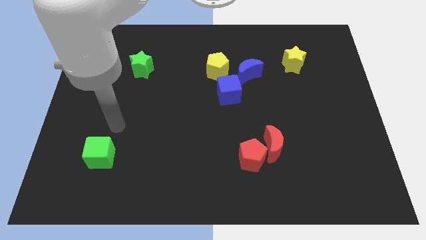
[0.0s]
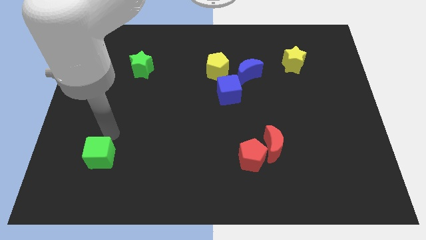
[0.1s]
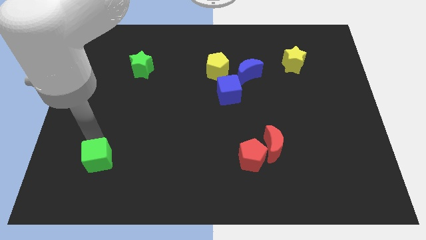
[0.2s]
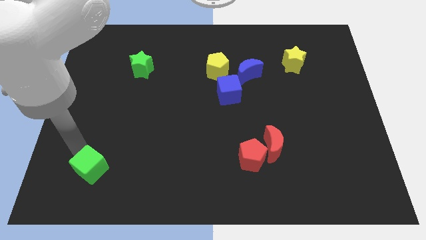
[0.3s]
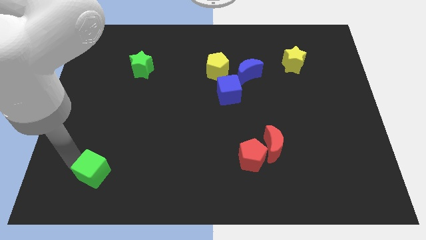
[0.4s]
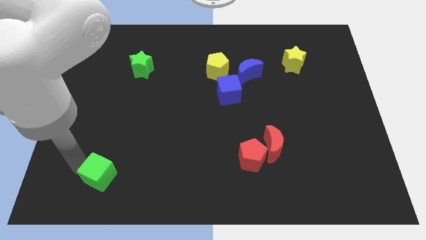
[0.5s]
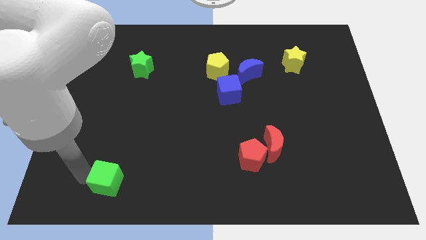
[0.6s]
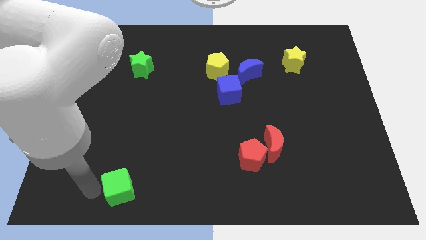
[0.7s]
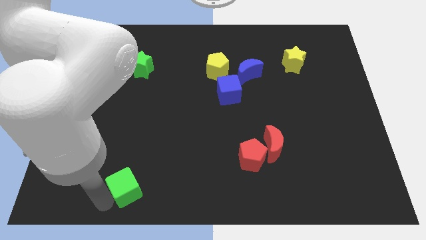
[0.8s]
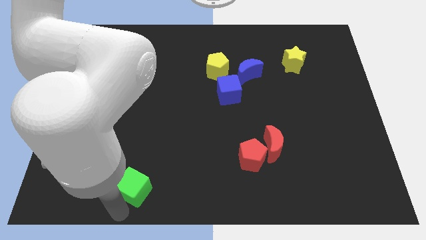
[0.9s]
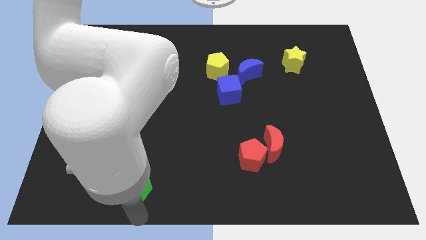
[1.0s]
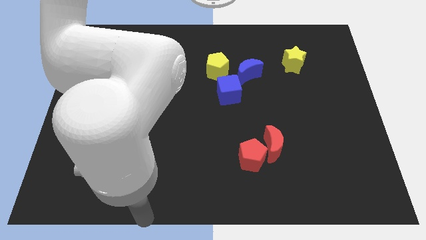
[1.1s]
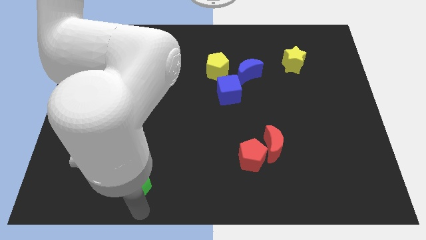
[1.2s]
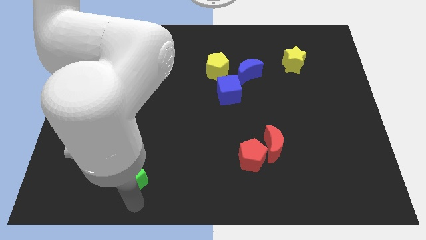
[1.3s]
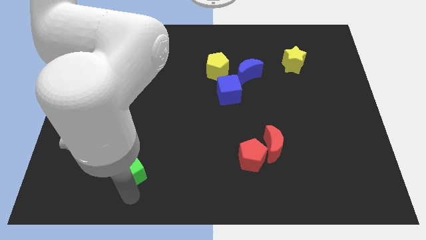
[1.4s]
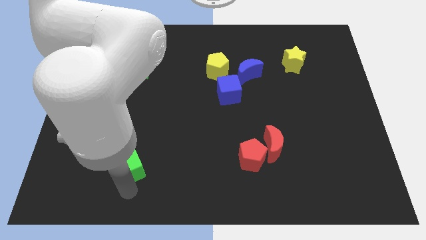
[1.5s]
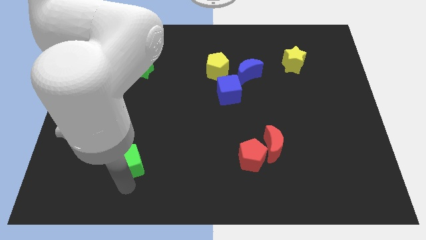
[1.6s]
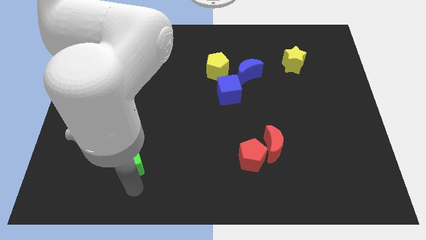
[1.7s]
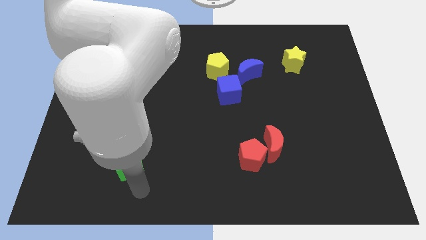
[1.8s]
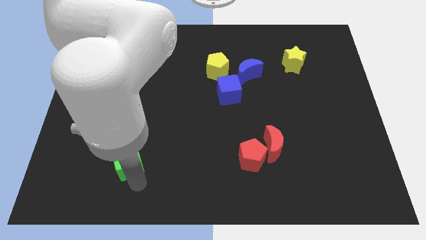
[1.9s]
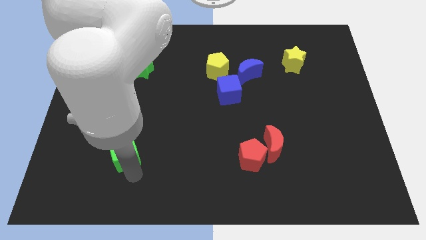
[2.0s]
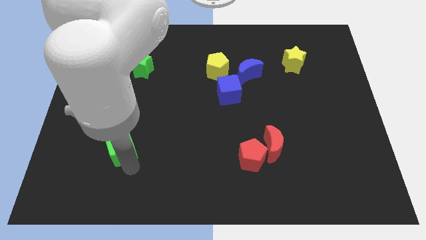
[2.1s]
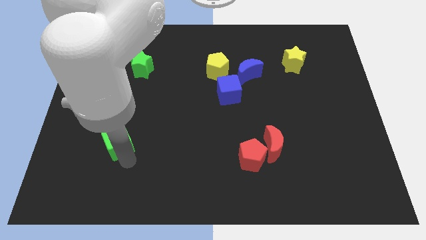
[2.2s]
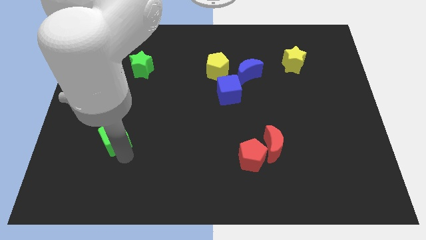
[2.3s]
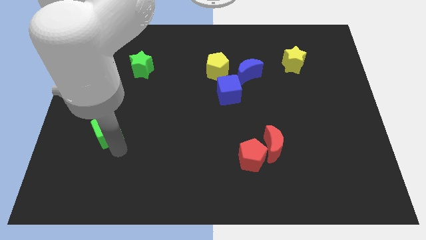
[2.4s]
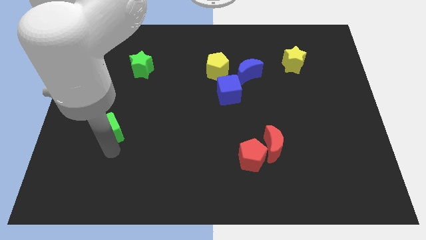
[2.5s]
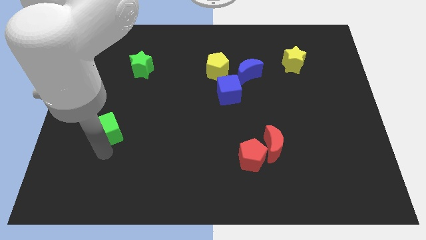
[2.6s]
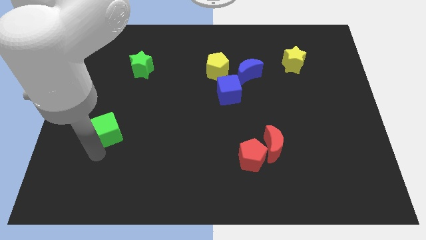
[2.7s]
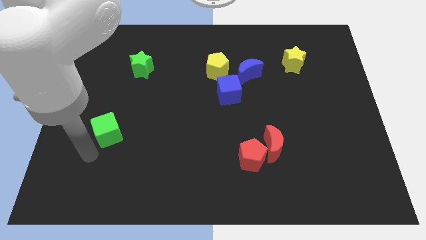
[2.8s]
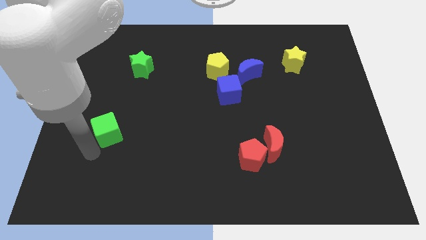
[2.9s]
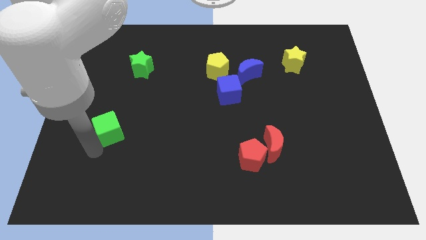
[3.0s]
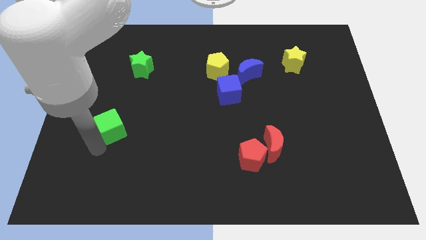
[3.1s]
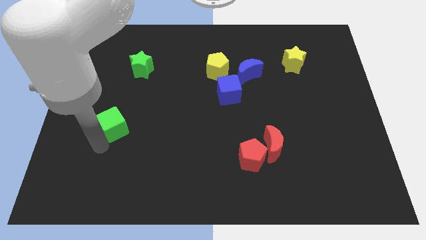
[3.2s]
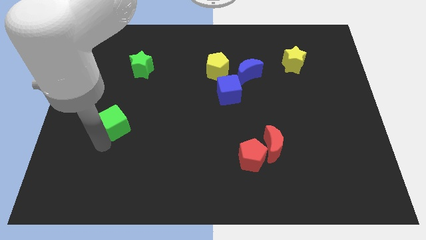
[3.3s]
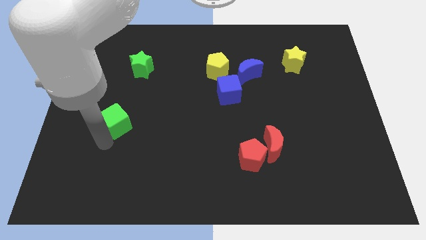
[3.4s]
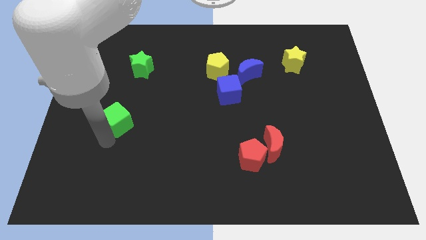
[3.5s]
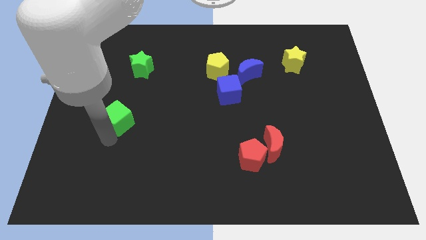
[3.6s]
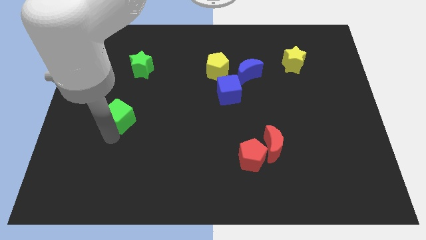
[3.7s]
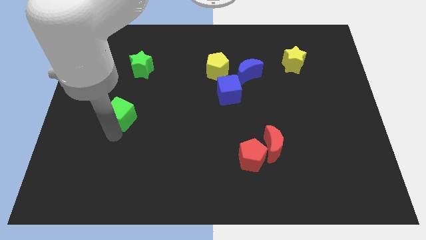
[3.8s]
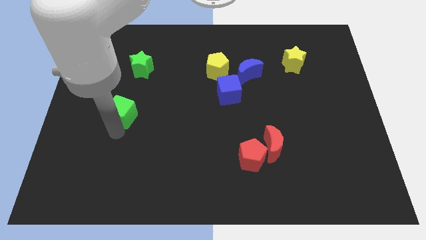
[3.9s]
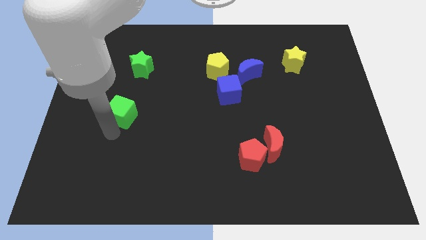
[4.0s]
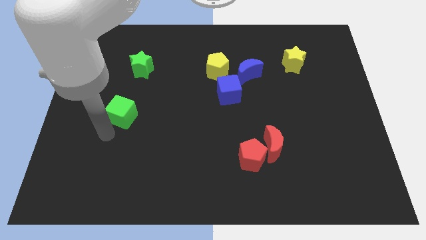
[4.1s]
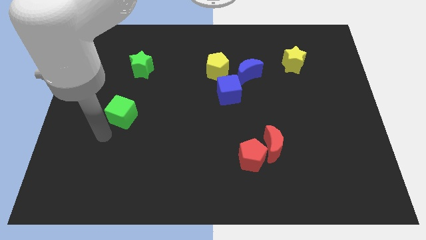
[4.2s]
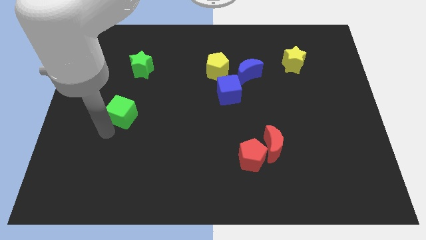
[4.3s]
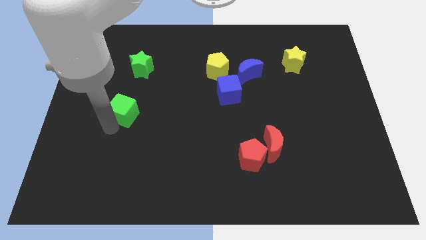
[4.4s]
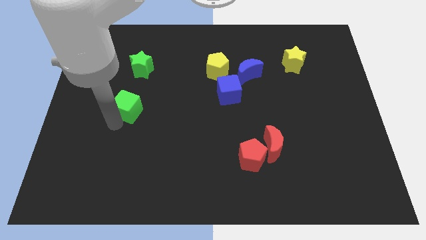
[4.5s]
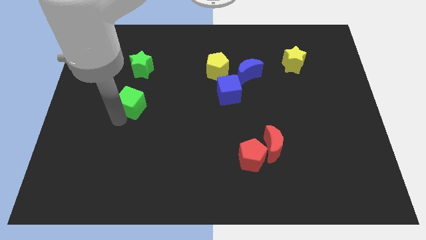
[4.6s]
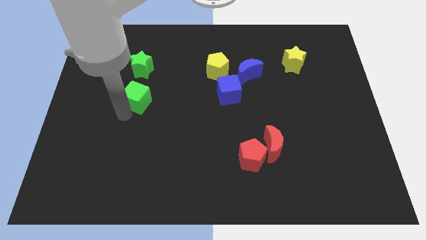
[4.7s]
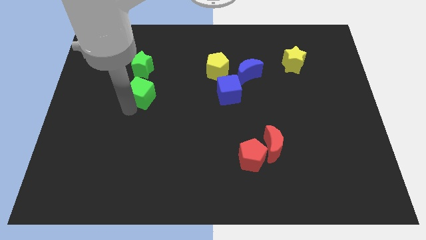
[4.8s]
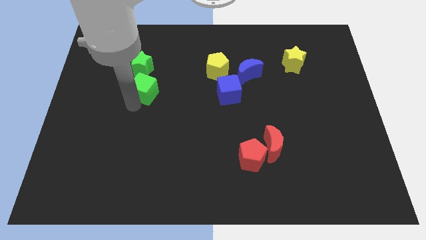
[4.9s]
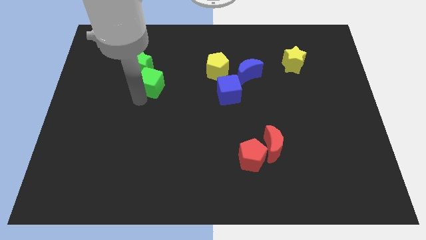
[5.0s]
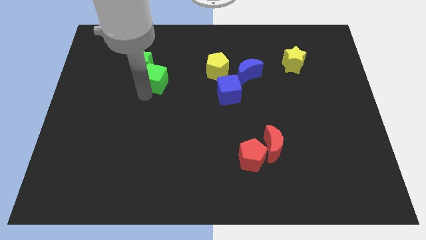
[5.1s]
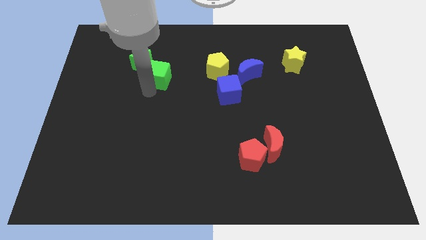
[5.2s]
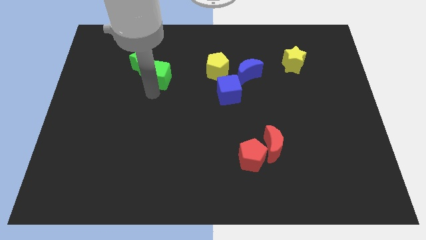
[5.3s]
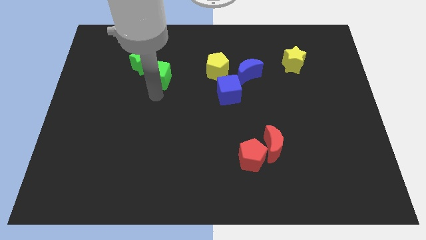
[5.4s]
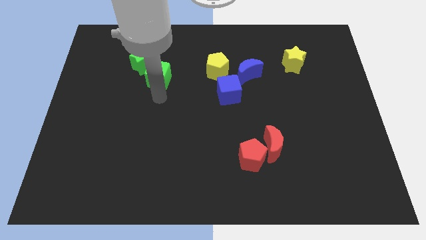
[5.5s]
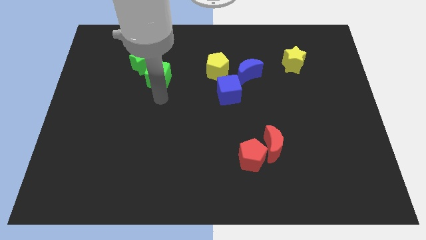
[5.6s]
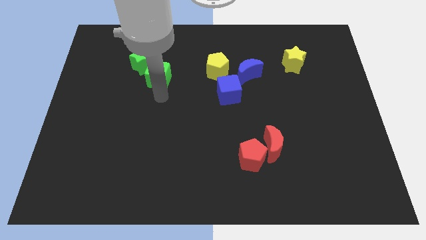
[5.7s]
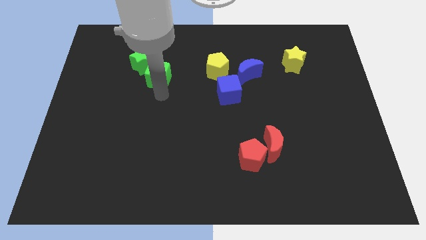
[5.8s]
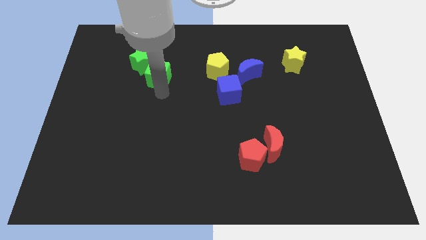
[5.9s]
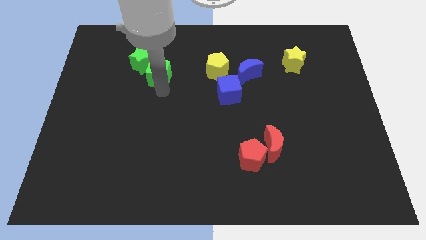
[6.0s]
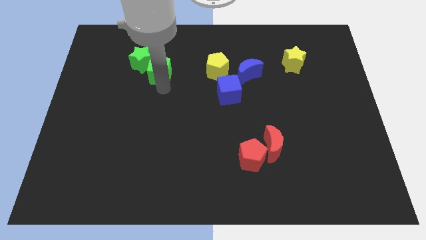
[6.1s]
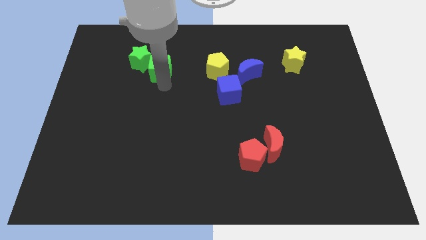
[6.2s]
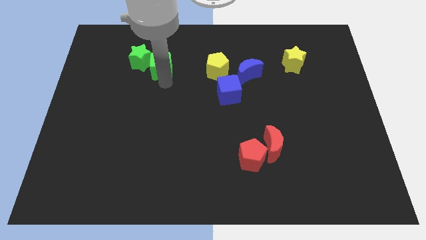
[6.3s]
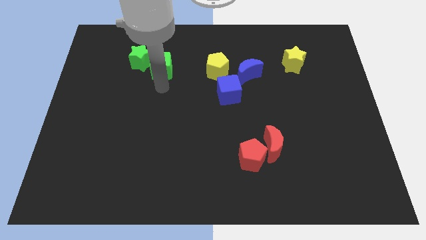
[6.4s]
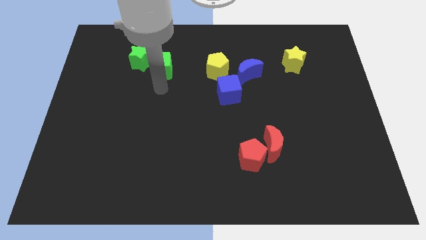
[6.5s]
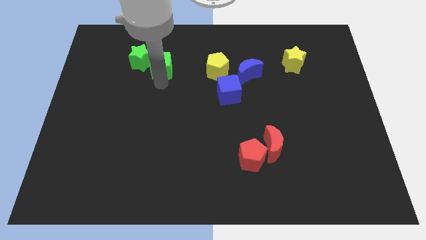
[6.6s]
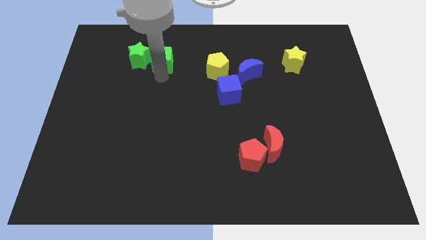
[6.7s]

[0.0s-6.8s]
put the green cube to the top right of the green star

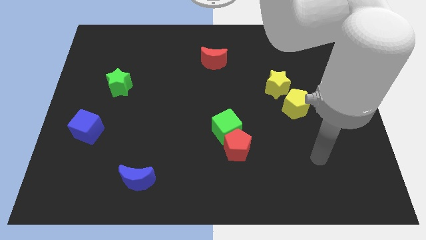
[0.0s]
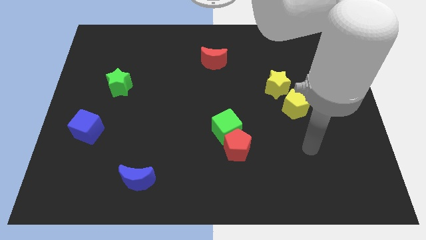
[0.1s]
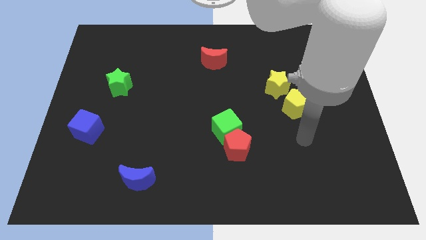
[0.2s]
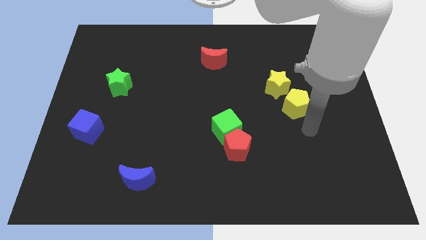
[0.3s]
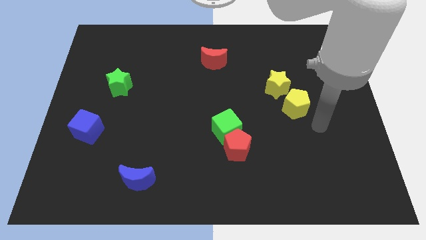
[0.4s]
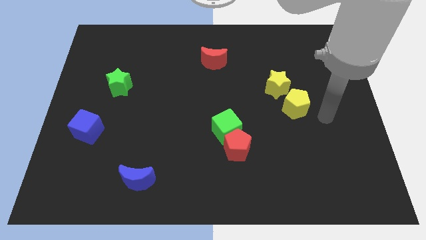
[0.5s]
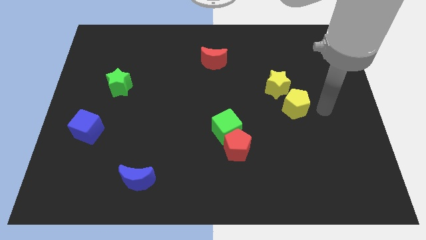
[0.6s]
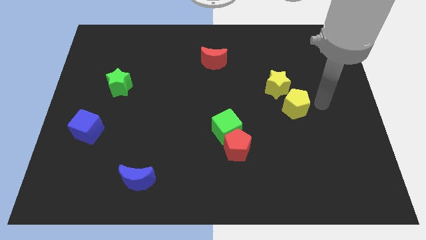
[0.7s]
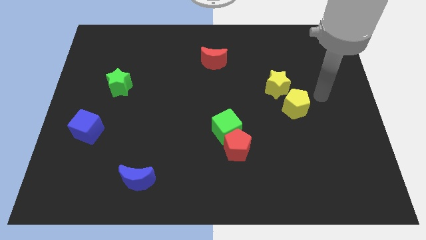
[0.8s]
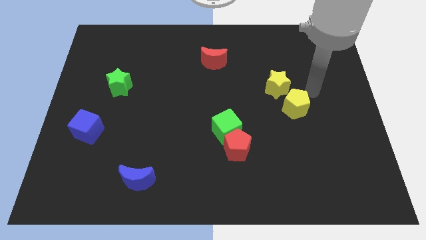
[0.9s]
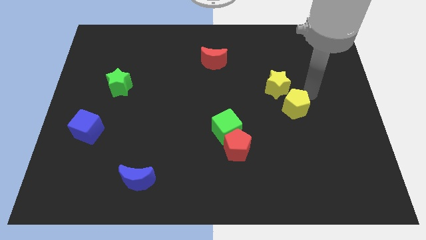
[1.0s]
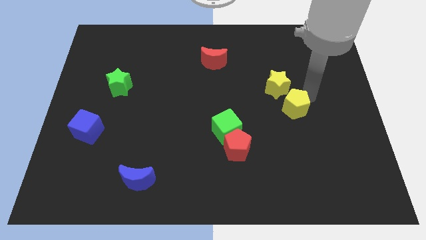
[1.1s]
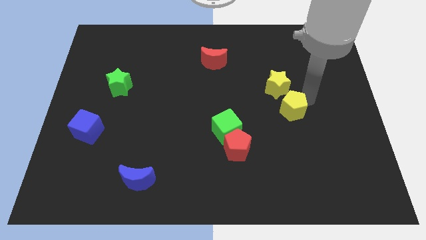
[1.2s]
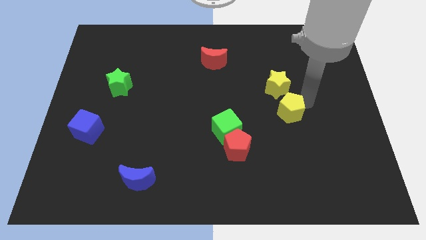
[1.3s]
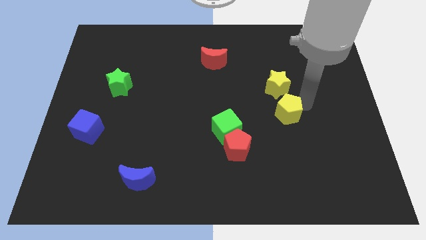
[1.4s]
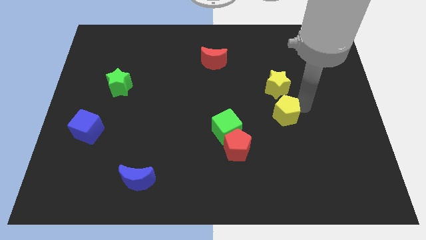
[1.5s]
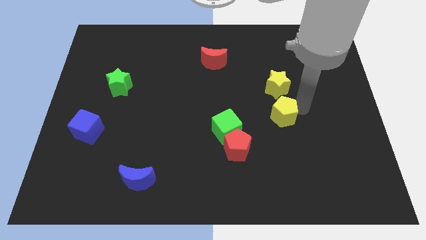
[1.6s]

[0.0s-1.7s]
slide the yellow pentagon just right of the green cube
